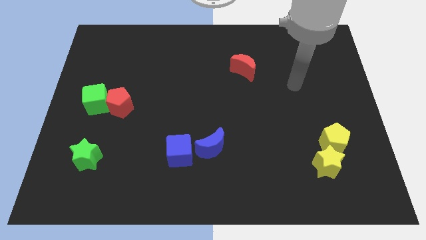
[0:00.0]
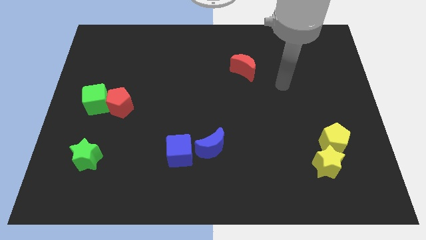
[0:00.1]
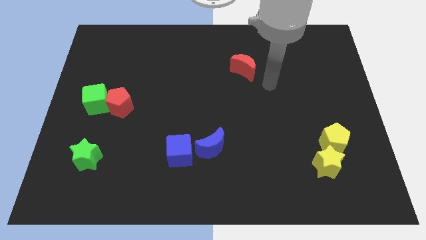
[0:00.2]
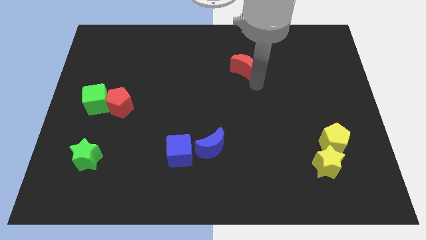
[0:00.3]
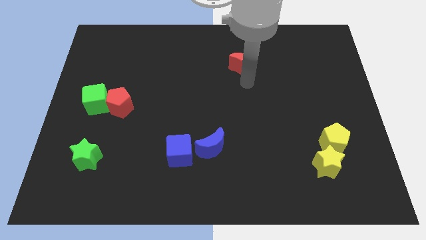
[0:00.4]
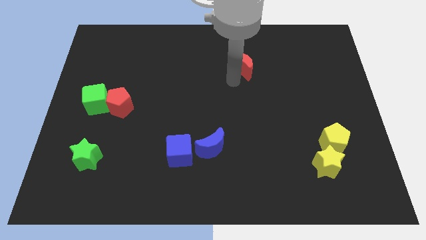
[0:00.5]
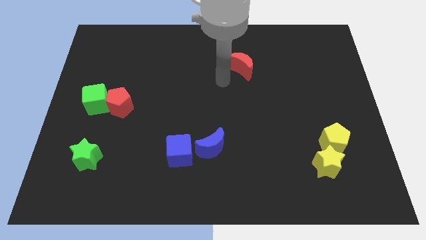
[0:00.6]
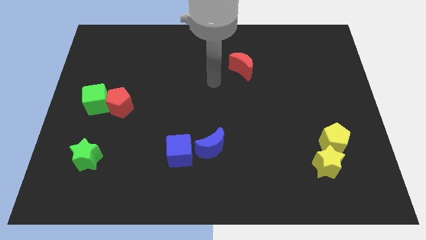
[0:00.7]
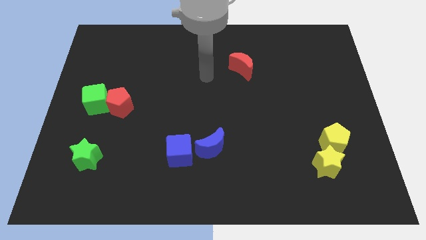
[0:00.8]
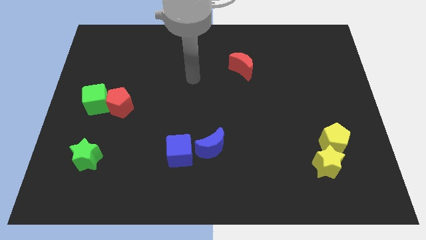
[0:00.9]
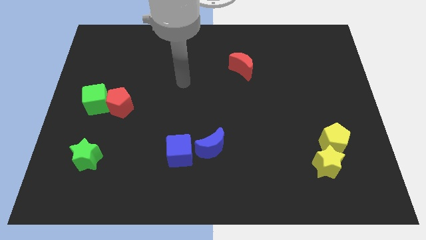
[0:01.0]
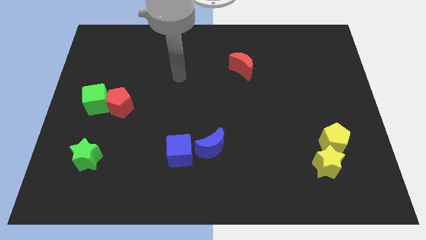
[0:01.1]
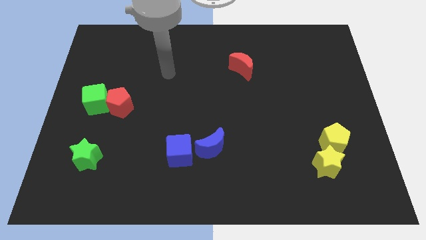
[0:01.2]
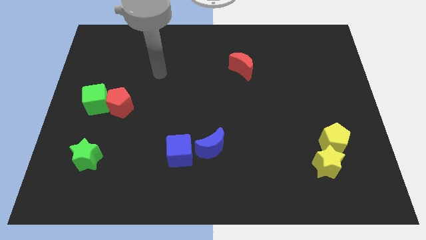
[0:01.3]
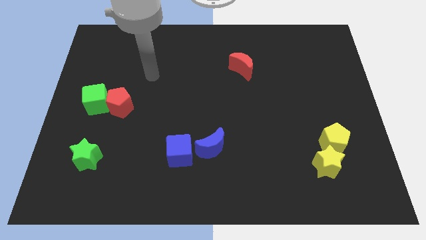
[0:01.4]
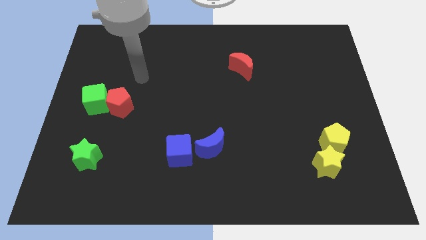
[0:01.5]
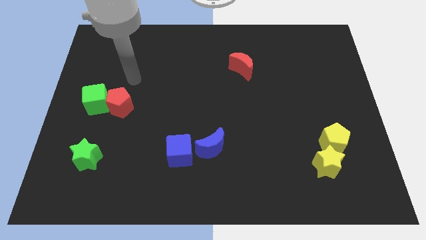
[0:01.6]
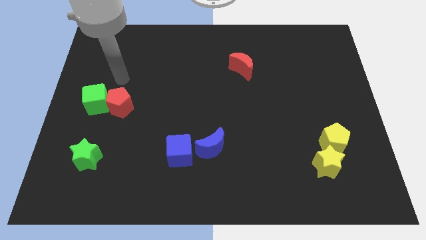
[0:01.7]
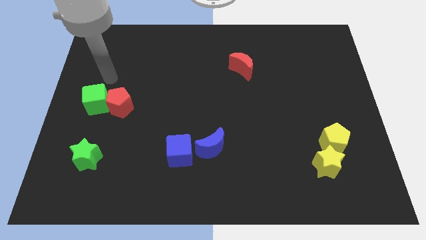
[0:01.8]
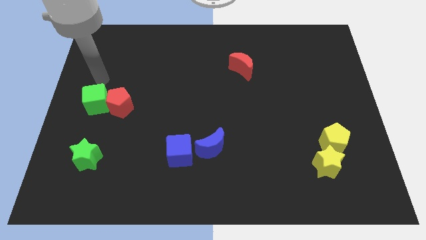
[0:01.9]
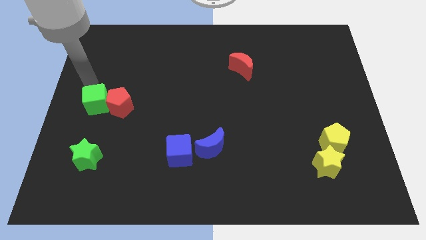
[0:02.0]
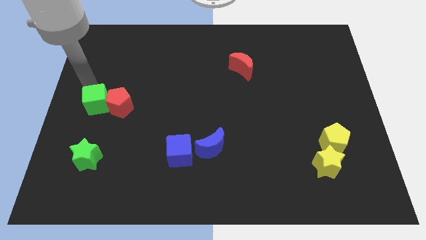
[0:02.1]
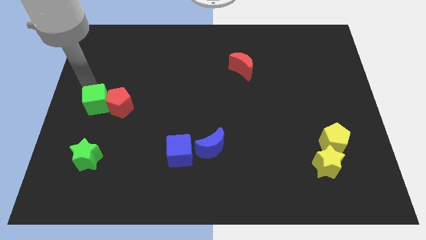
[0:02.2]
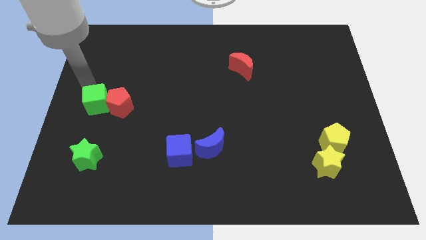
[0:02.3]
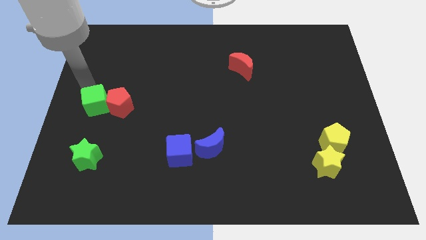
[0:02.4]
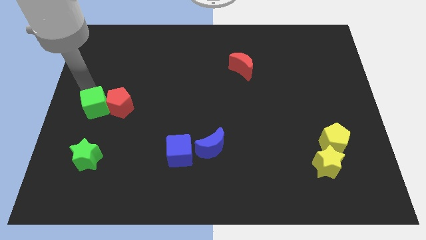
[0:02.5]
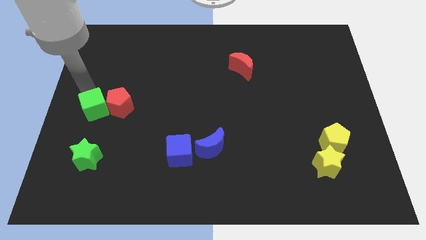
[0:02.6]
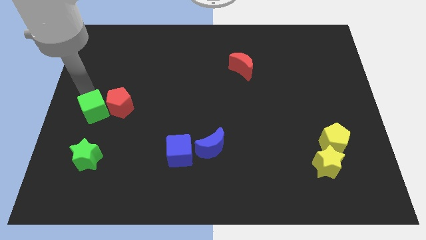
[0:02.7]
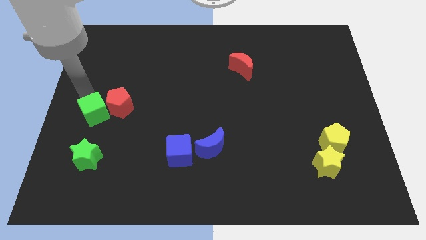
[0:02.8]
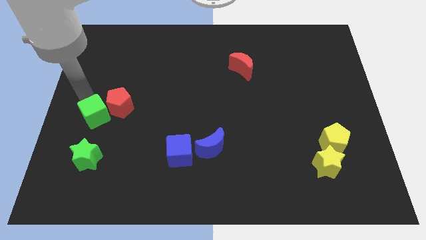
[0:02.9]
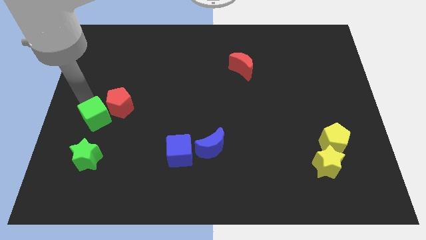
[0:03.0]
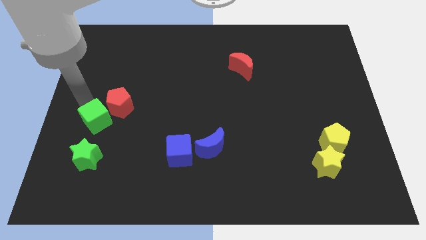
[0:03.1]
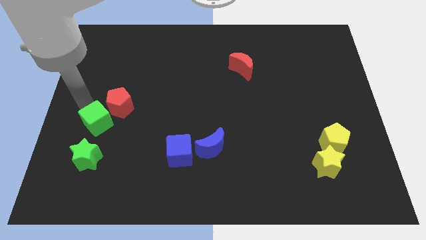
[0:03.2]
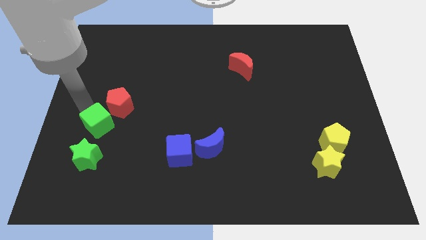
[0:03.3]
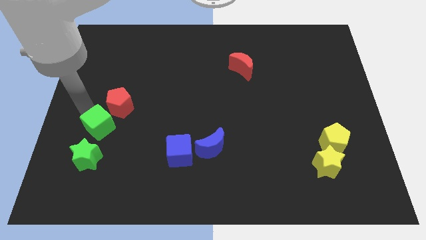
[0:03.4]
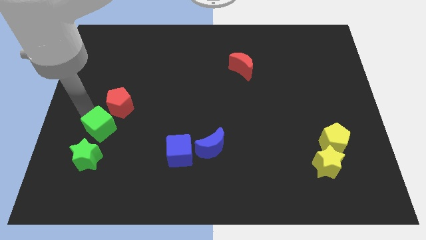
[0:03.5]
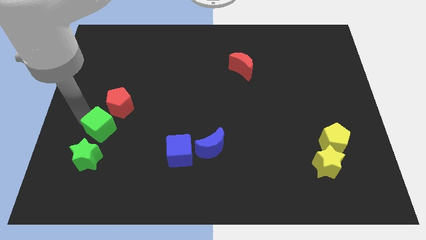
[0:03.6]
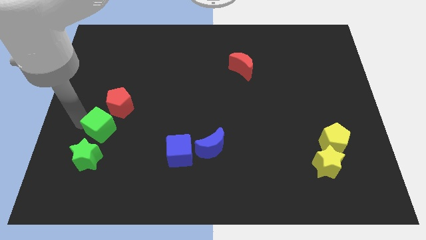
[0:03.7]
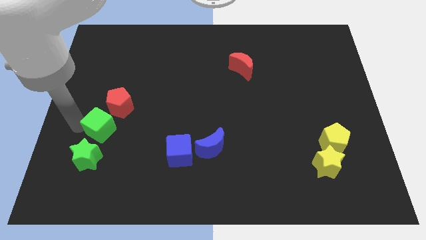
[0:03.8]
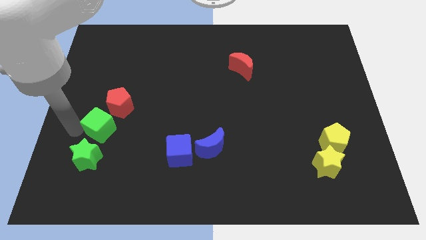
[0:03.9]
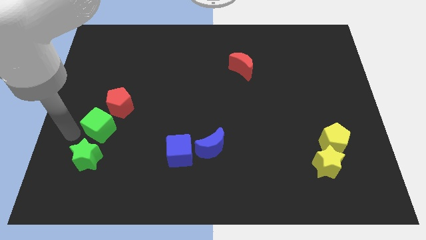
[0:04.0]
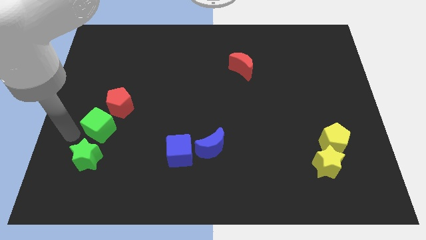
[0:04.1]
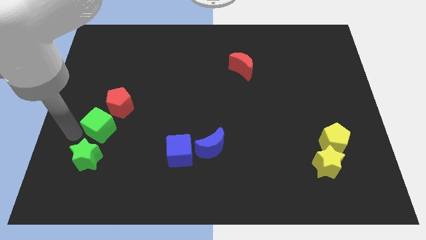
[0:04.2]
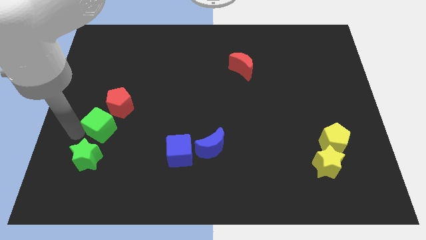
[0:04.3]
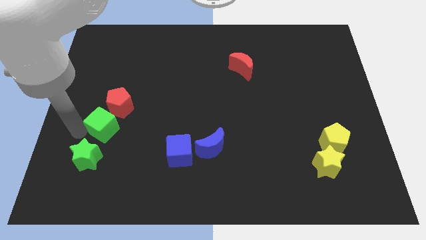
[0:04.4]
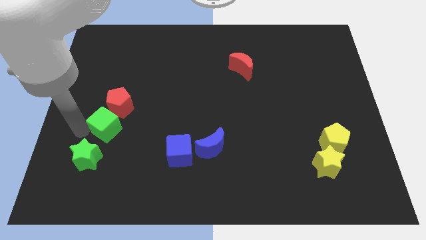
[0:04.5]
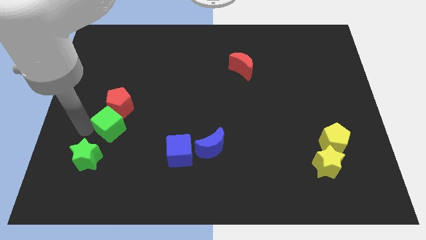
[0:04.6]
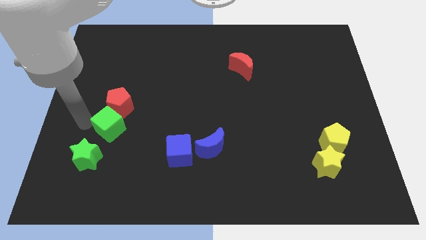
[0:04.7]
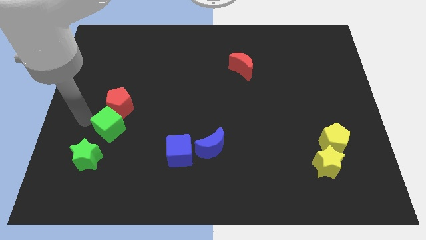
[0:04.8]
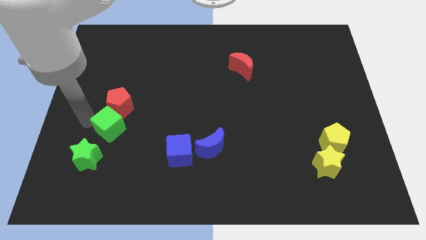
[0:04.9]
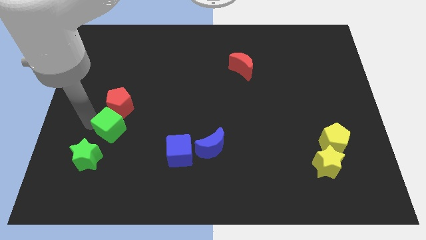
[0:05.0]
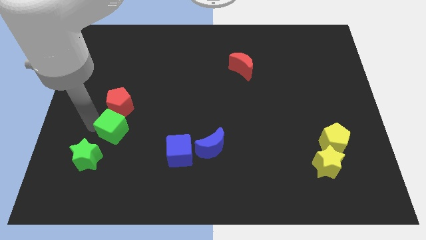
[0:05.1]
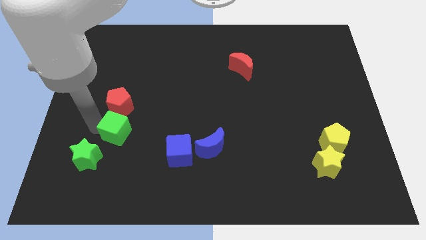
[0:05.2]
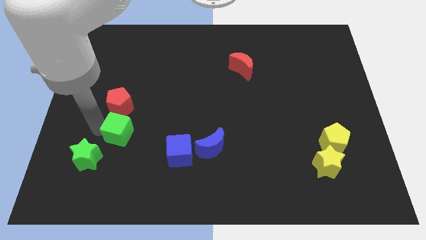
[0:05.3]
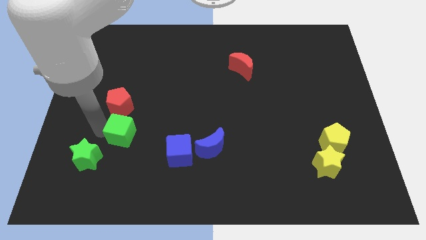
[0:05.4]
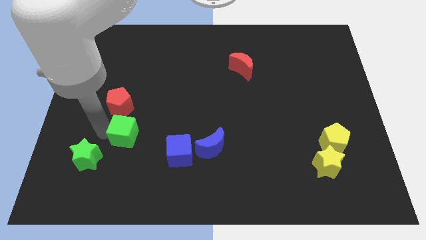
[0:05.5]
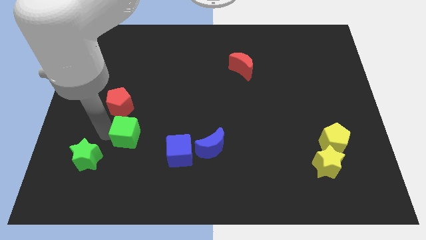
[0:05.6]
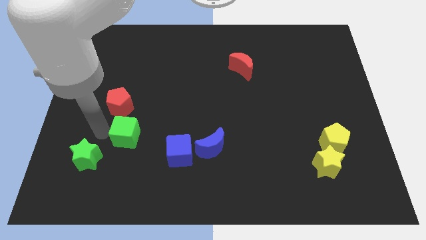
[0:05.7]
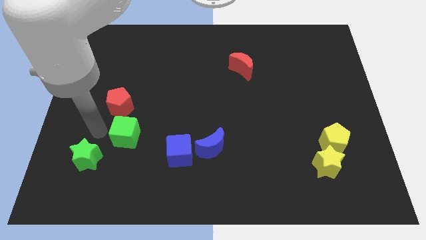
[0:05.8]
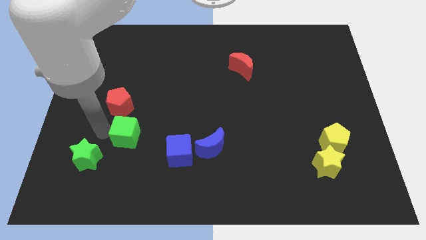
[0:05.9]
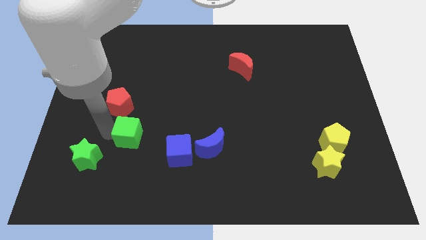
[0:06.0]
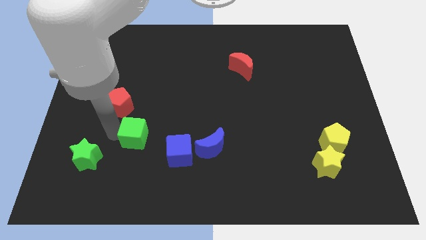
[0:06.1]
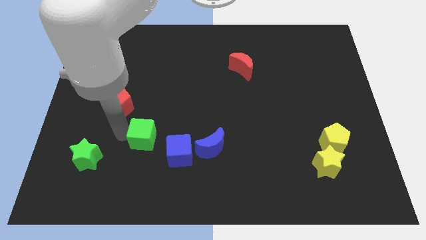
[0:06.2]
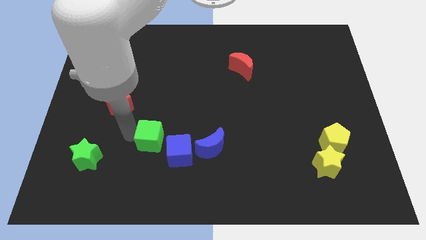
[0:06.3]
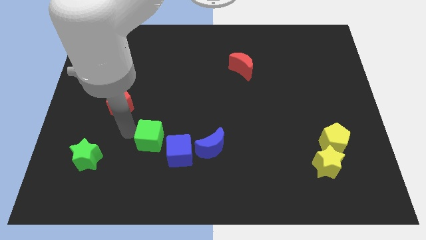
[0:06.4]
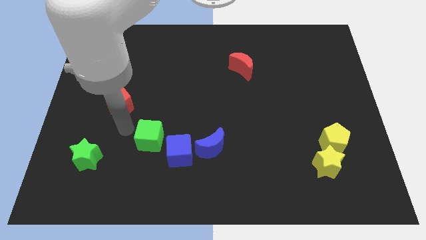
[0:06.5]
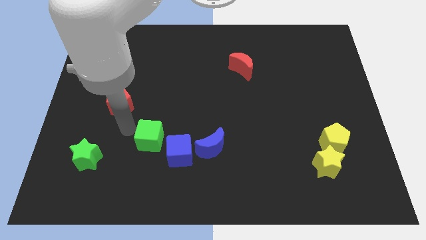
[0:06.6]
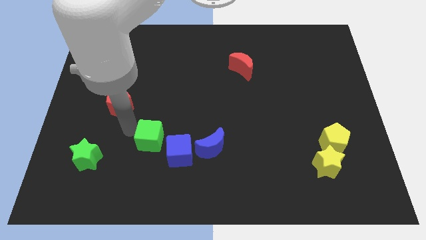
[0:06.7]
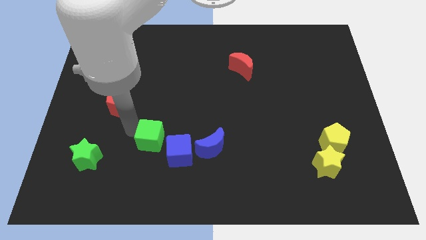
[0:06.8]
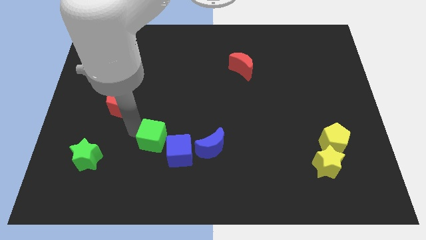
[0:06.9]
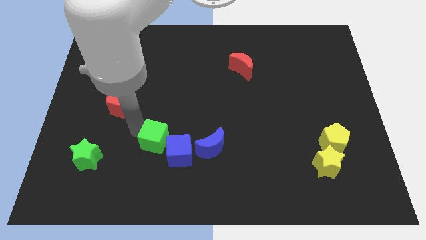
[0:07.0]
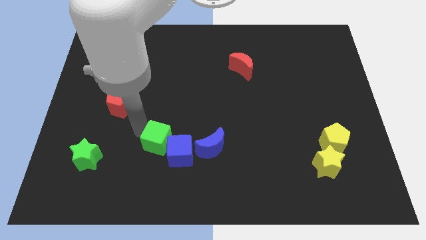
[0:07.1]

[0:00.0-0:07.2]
slide the green cube next to the blue cube
